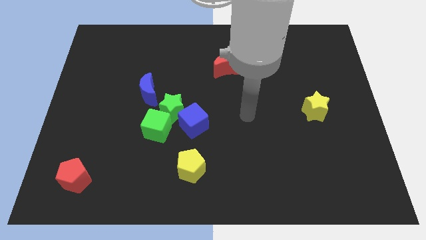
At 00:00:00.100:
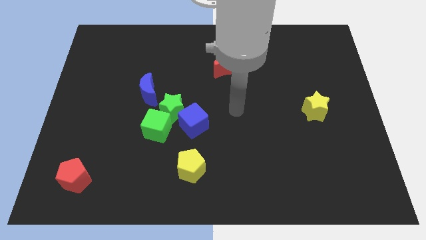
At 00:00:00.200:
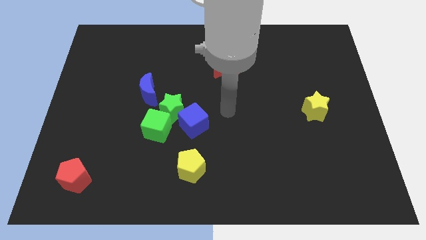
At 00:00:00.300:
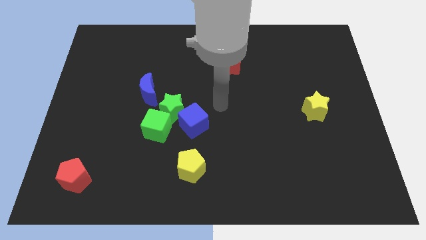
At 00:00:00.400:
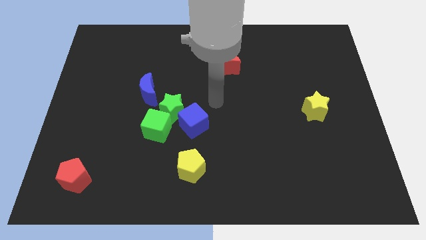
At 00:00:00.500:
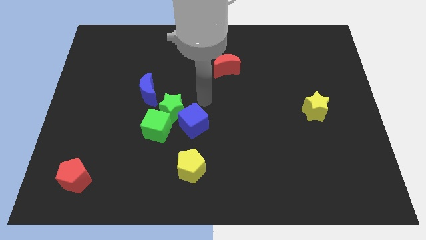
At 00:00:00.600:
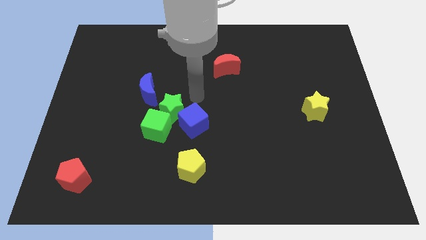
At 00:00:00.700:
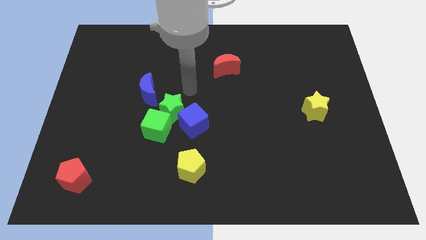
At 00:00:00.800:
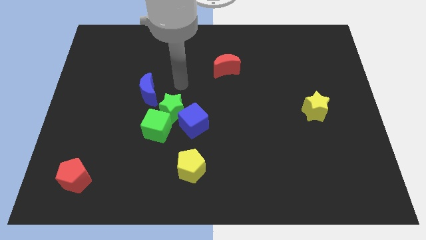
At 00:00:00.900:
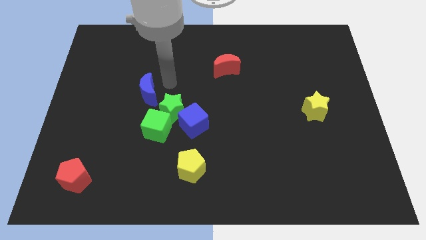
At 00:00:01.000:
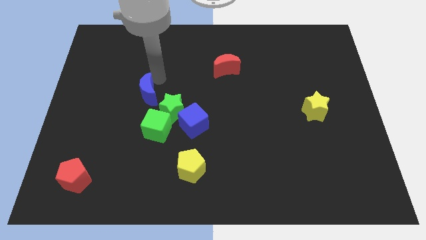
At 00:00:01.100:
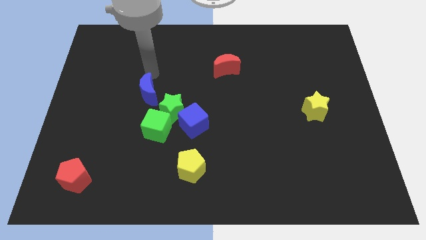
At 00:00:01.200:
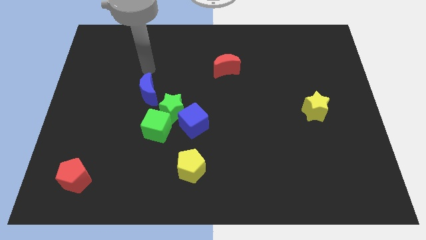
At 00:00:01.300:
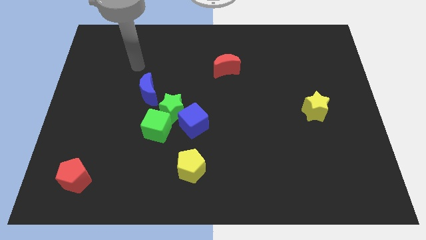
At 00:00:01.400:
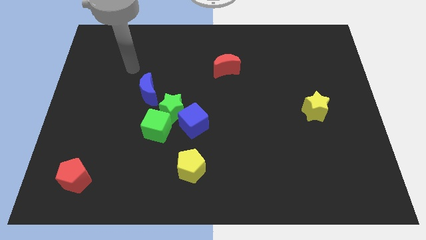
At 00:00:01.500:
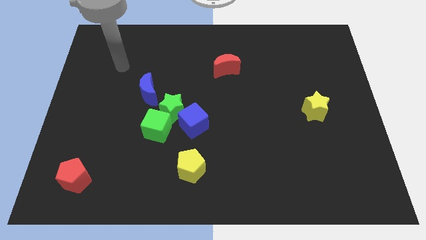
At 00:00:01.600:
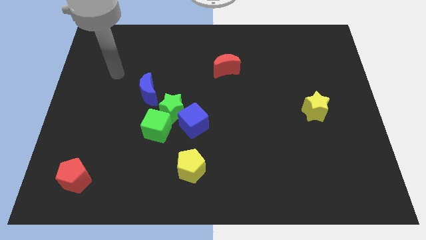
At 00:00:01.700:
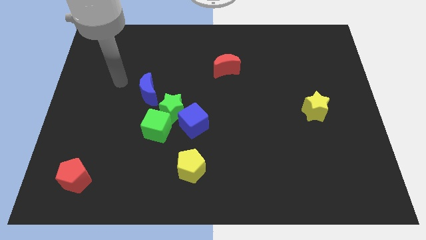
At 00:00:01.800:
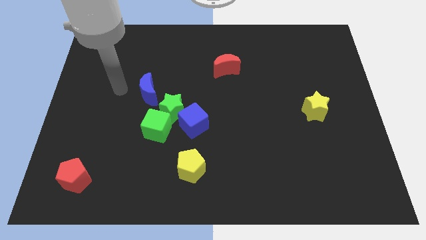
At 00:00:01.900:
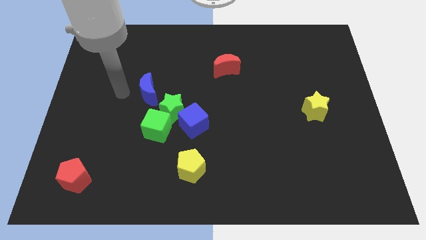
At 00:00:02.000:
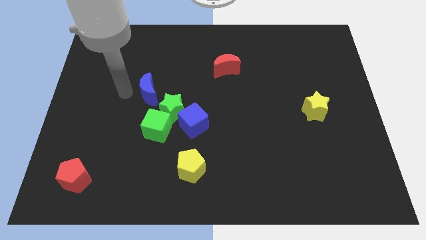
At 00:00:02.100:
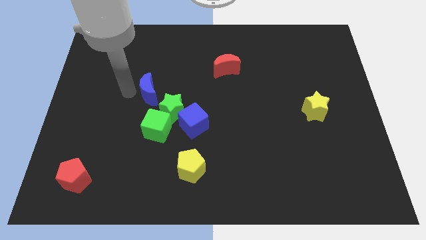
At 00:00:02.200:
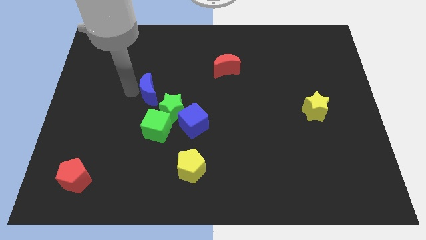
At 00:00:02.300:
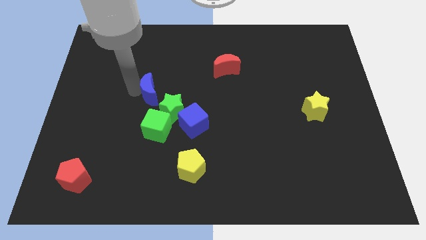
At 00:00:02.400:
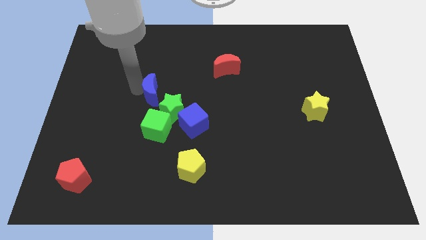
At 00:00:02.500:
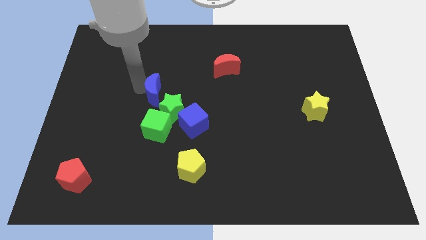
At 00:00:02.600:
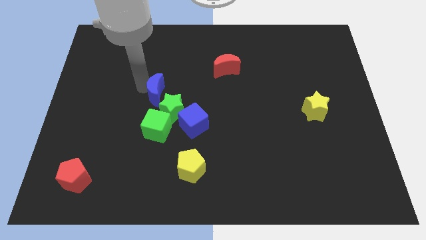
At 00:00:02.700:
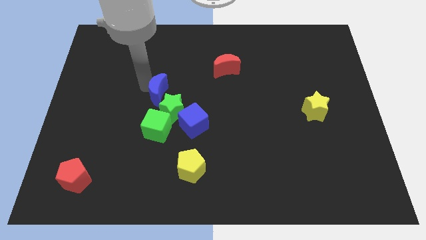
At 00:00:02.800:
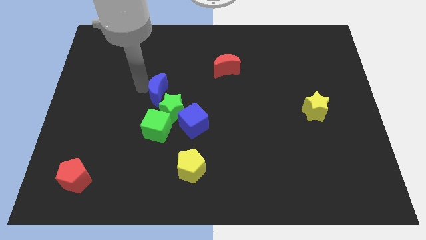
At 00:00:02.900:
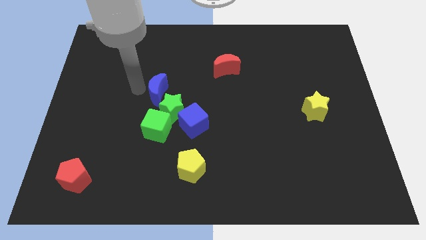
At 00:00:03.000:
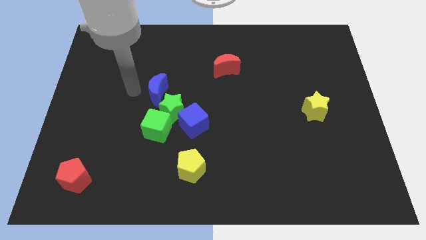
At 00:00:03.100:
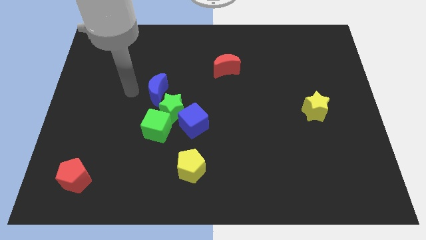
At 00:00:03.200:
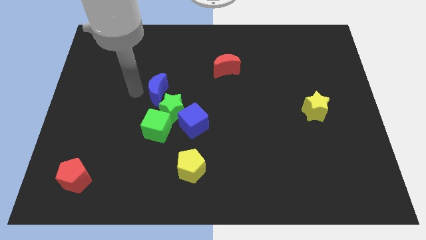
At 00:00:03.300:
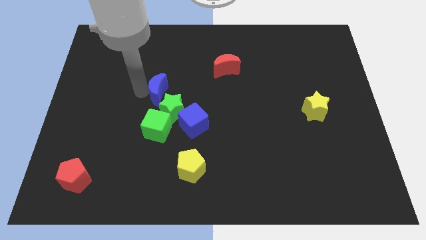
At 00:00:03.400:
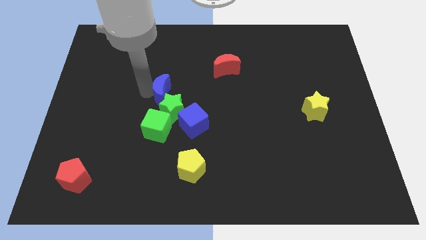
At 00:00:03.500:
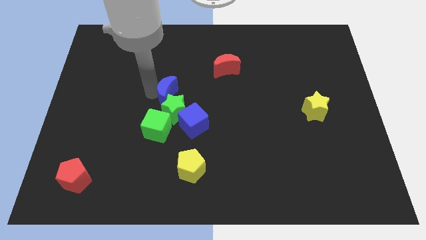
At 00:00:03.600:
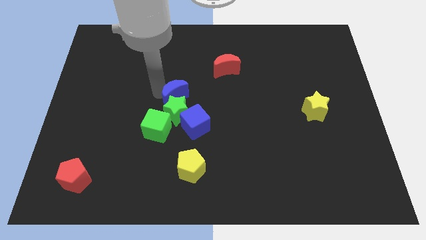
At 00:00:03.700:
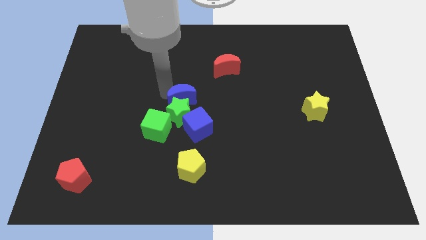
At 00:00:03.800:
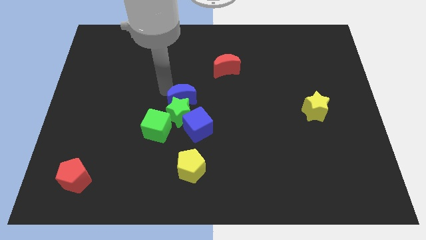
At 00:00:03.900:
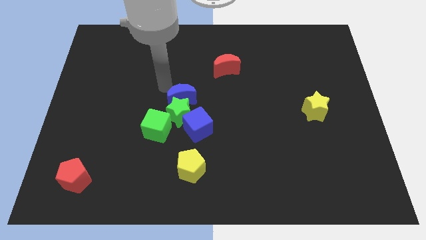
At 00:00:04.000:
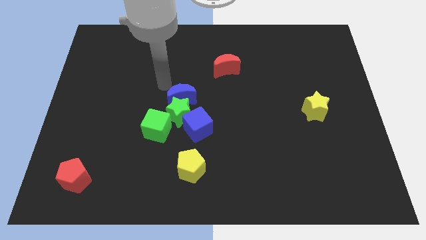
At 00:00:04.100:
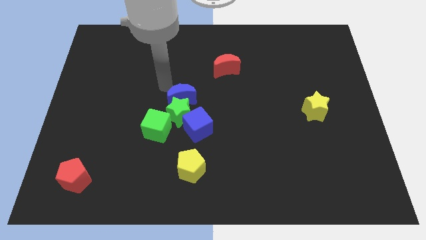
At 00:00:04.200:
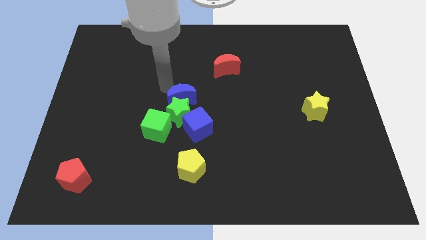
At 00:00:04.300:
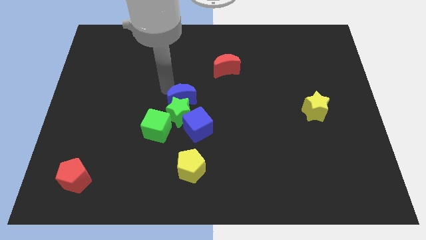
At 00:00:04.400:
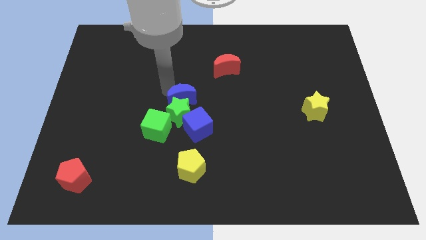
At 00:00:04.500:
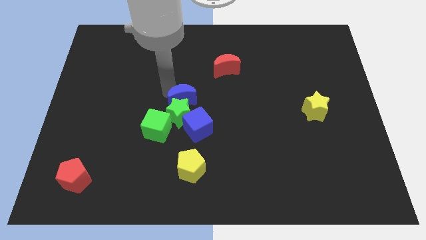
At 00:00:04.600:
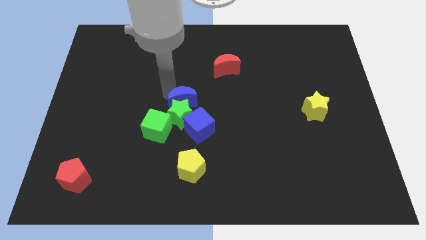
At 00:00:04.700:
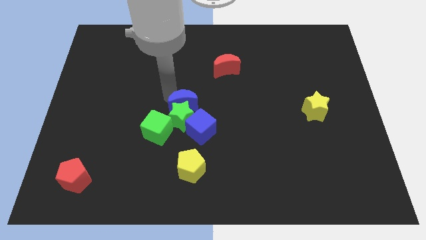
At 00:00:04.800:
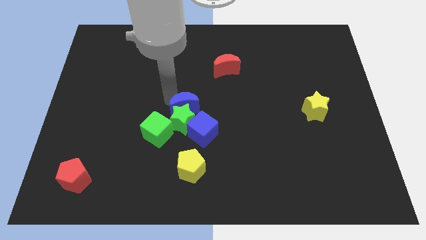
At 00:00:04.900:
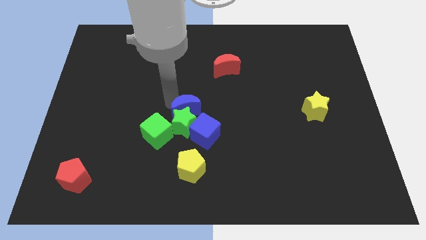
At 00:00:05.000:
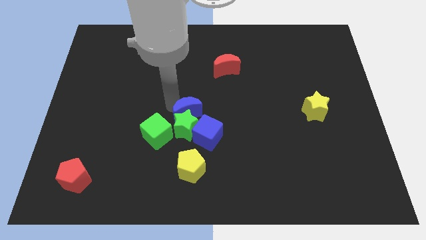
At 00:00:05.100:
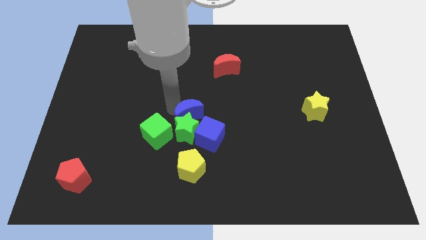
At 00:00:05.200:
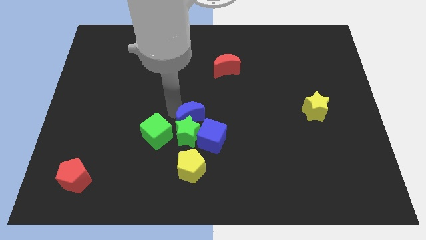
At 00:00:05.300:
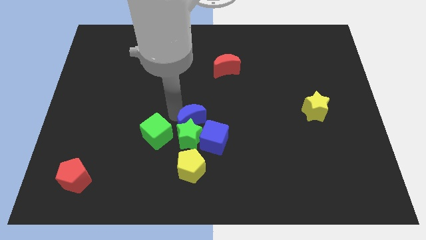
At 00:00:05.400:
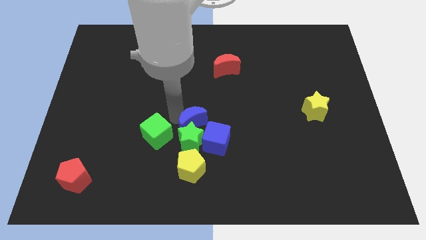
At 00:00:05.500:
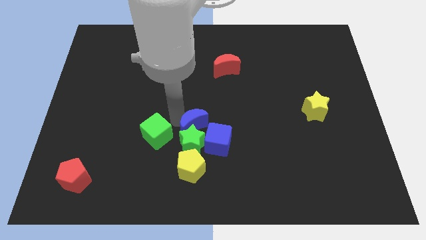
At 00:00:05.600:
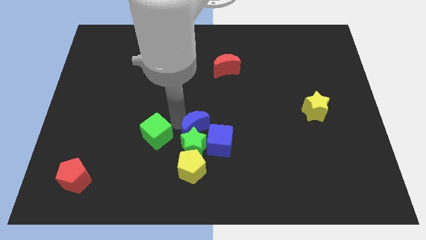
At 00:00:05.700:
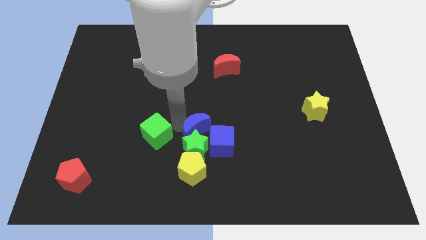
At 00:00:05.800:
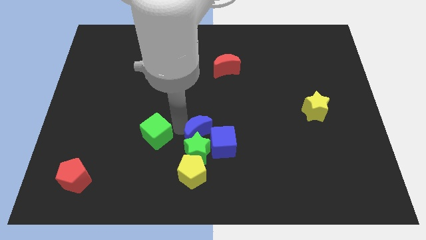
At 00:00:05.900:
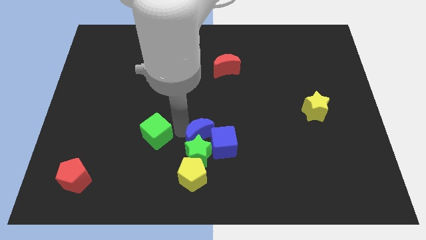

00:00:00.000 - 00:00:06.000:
move the blue moon close to the blue cube

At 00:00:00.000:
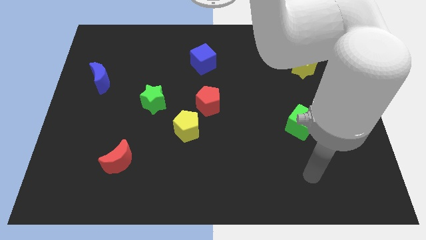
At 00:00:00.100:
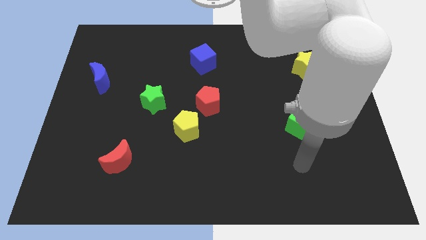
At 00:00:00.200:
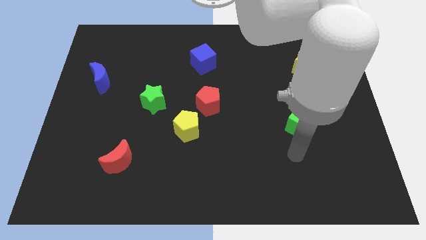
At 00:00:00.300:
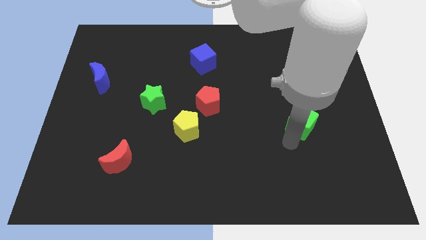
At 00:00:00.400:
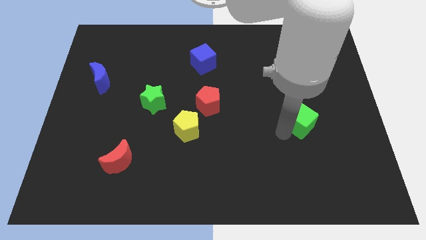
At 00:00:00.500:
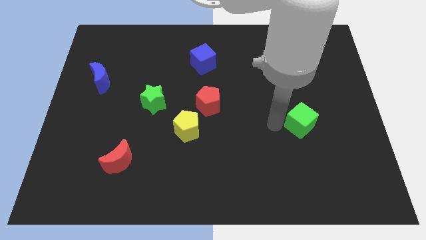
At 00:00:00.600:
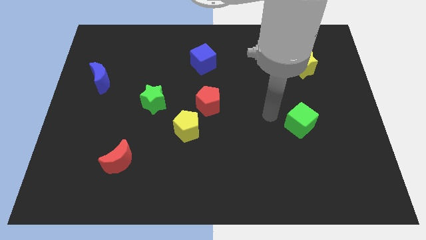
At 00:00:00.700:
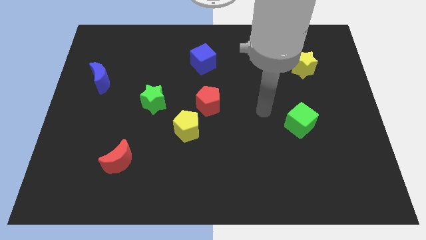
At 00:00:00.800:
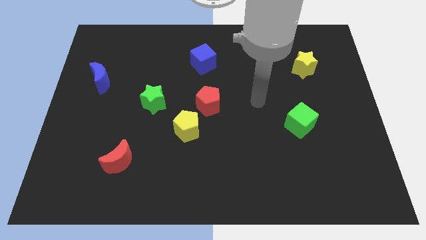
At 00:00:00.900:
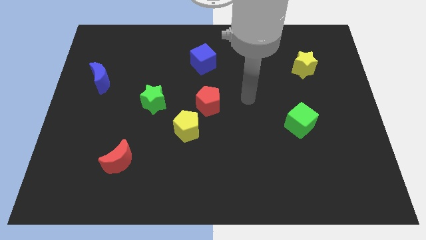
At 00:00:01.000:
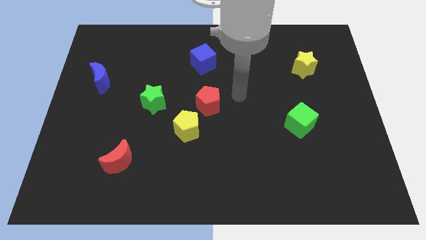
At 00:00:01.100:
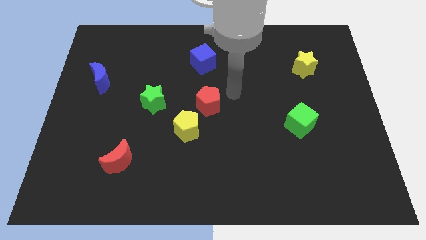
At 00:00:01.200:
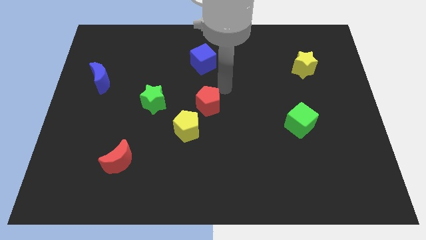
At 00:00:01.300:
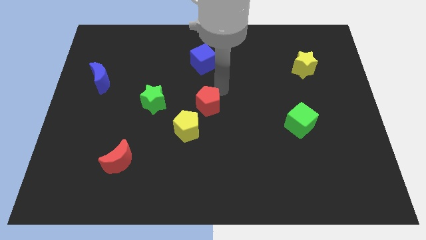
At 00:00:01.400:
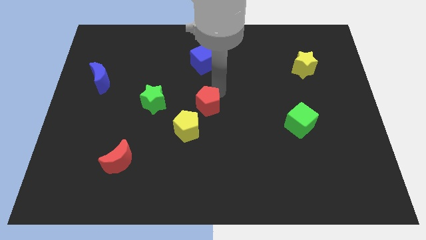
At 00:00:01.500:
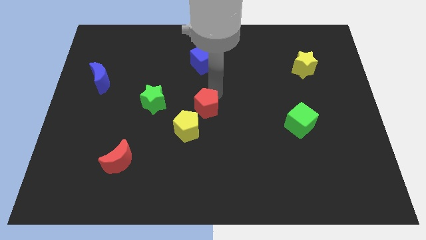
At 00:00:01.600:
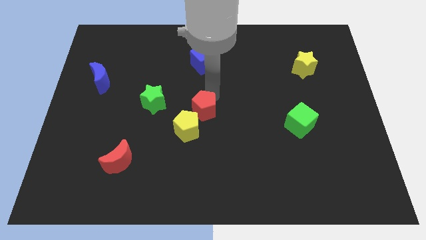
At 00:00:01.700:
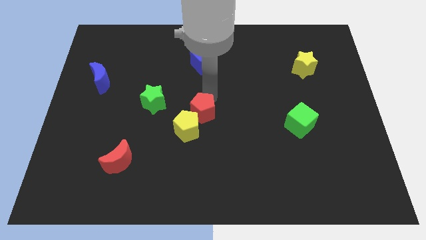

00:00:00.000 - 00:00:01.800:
move the red pentagon next to the yellow pentagon

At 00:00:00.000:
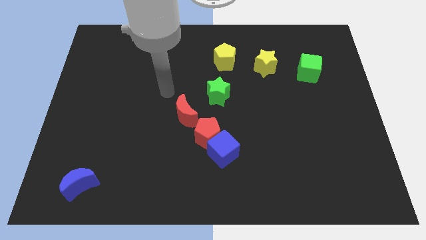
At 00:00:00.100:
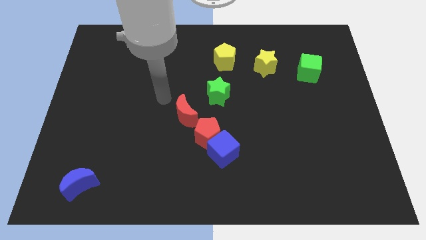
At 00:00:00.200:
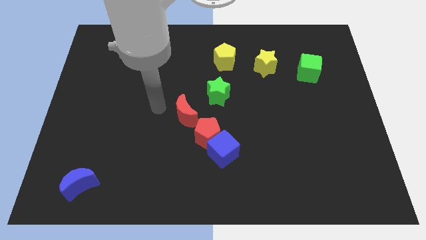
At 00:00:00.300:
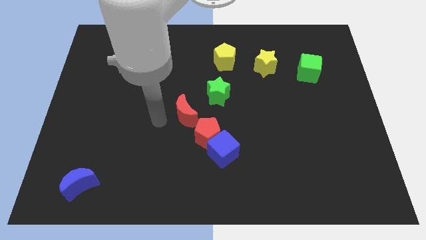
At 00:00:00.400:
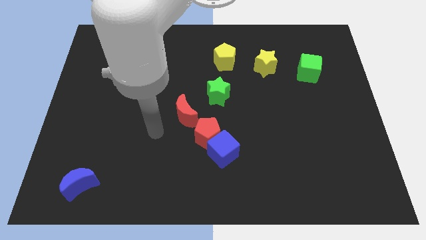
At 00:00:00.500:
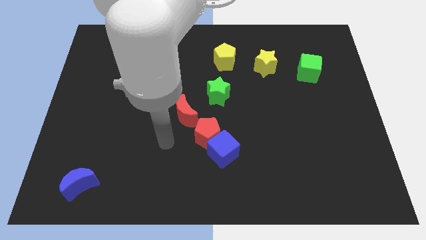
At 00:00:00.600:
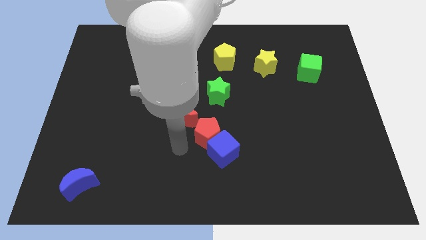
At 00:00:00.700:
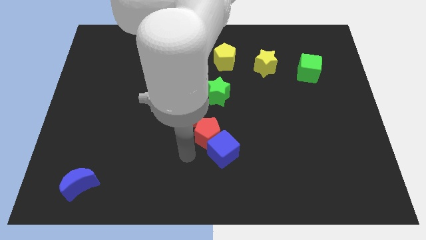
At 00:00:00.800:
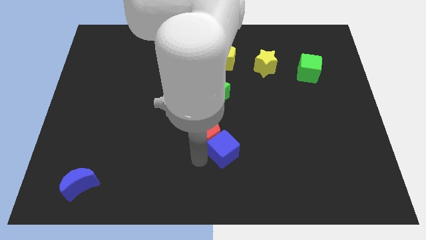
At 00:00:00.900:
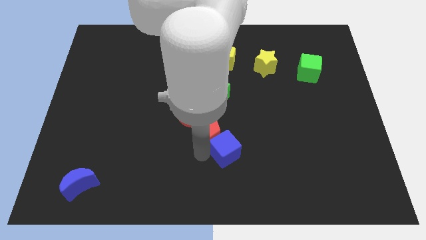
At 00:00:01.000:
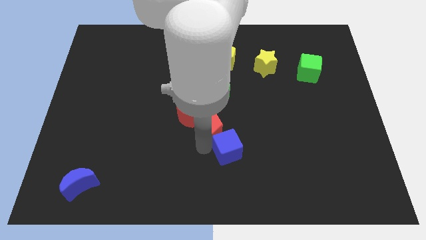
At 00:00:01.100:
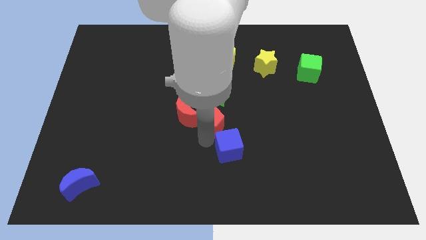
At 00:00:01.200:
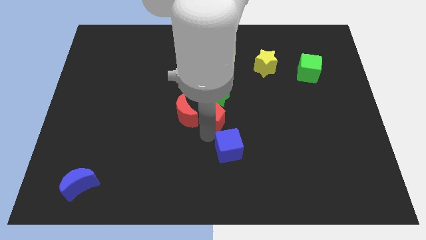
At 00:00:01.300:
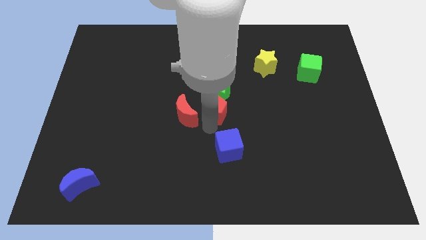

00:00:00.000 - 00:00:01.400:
push the red pentagon to the green star
